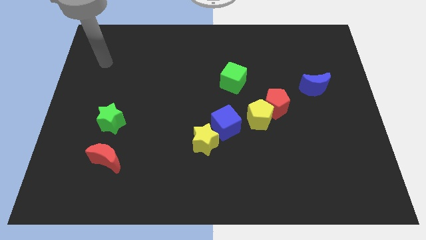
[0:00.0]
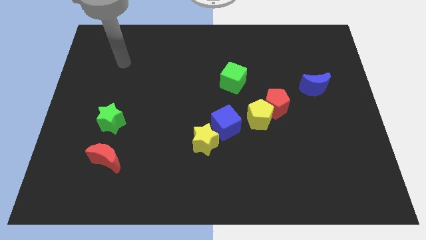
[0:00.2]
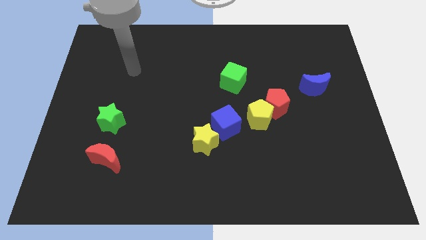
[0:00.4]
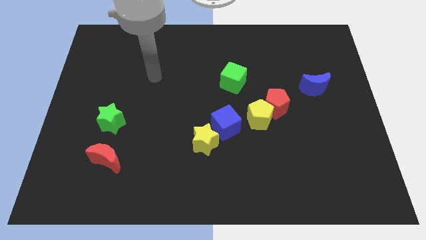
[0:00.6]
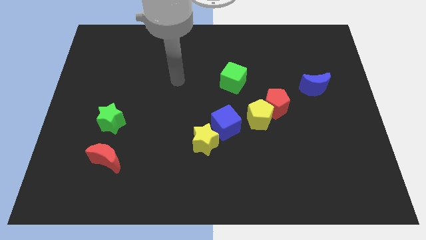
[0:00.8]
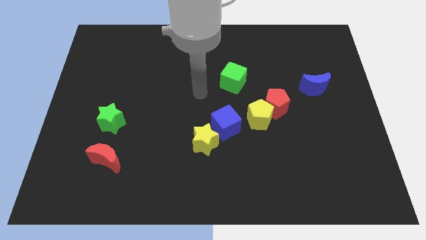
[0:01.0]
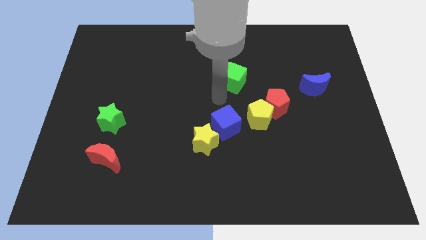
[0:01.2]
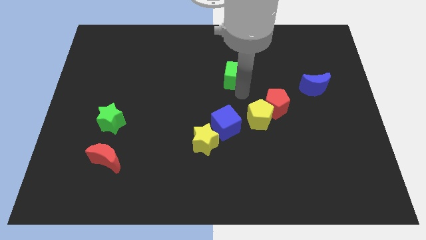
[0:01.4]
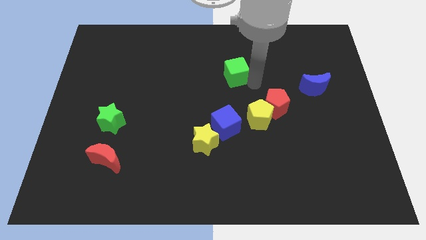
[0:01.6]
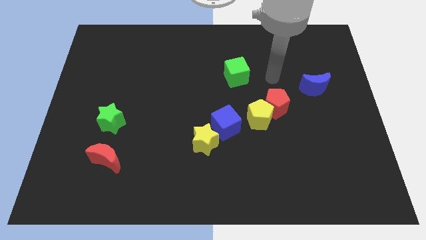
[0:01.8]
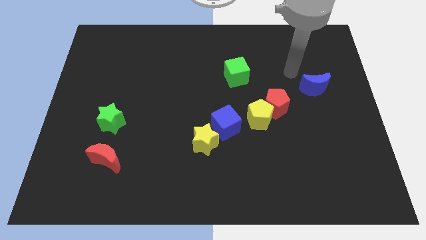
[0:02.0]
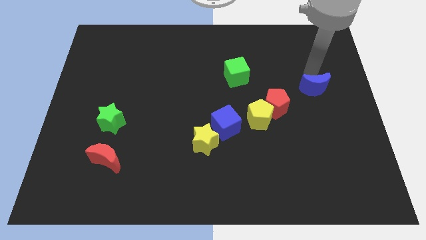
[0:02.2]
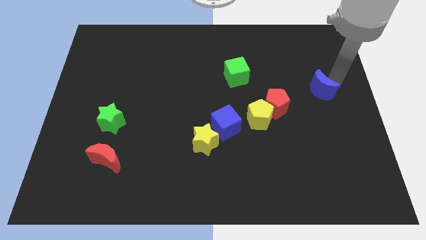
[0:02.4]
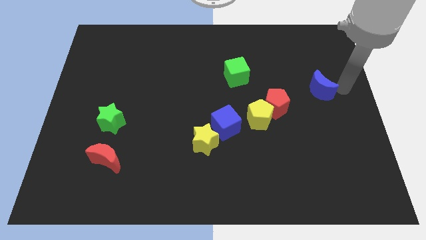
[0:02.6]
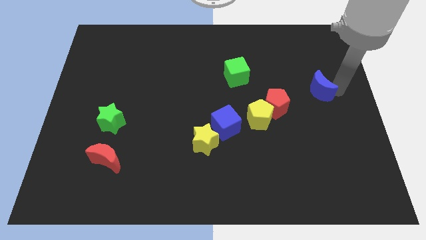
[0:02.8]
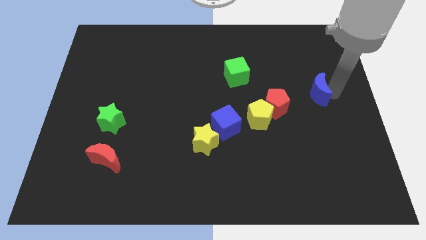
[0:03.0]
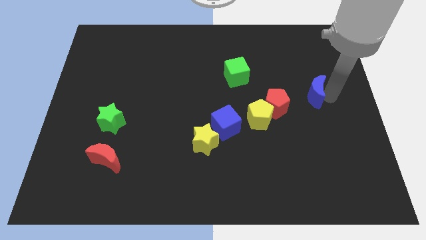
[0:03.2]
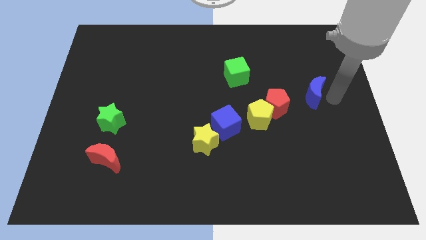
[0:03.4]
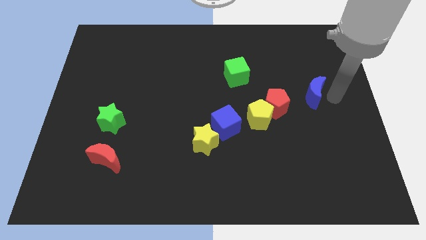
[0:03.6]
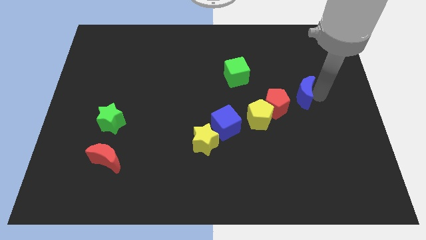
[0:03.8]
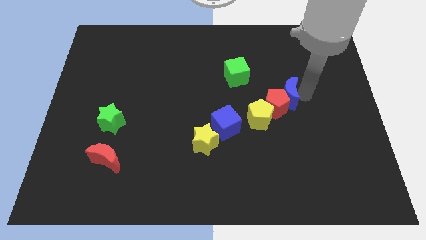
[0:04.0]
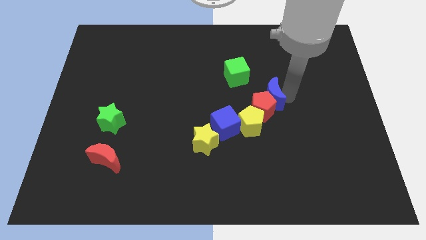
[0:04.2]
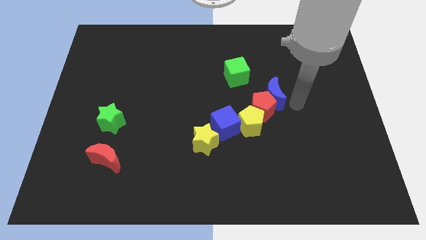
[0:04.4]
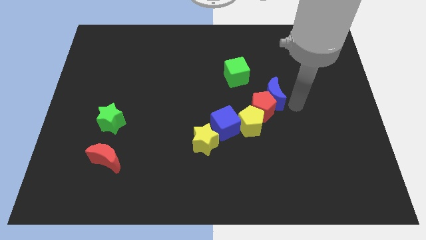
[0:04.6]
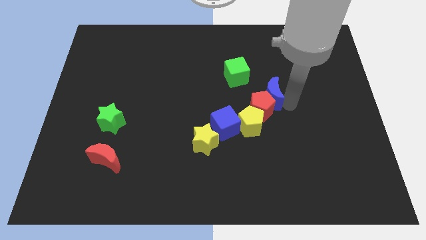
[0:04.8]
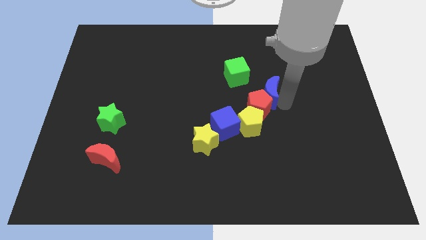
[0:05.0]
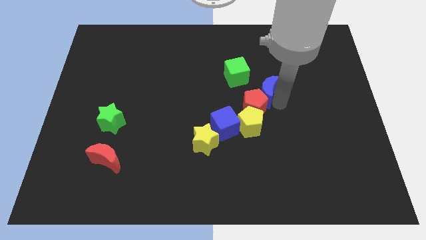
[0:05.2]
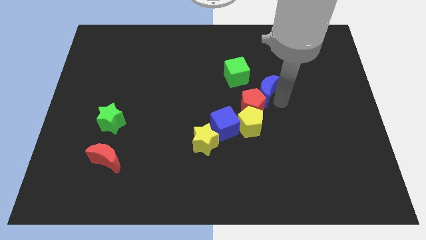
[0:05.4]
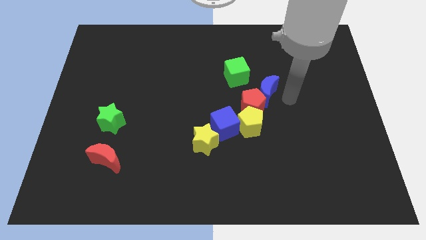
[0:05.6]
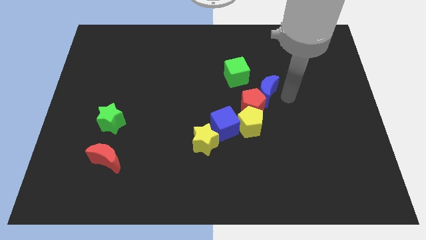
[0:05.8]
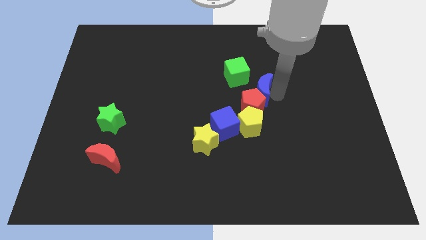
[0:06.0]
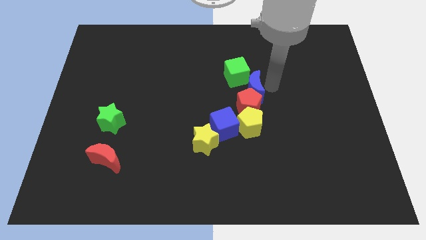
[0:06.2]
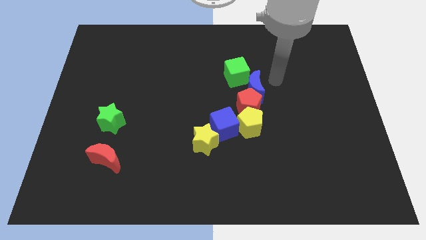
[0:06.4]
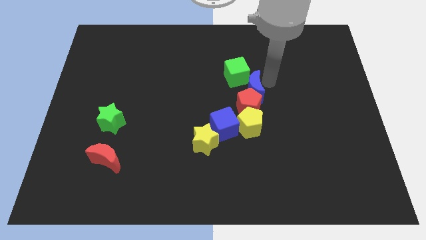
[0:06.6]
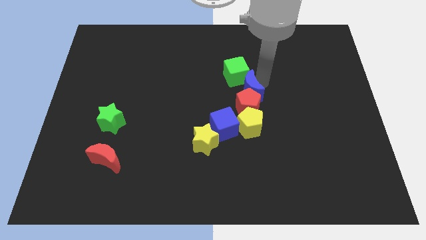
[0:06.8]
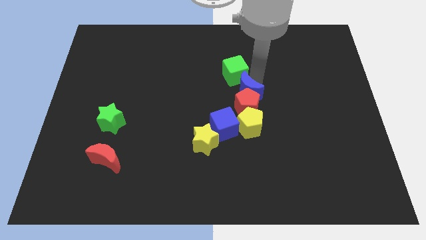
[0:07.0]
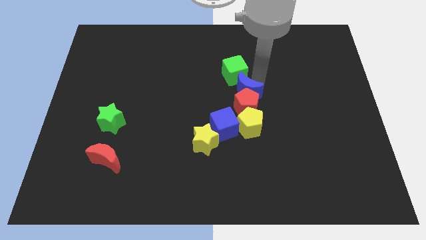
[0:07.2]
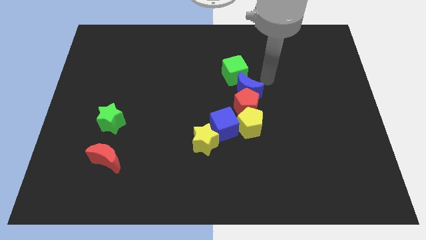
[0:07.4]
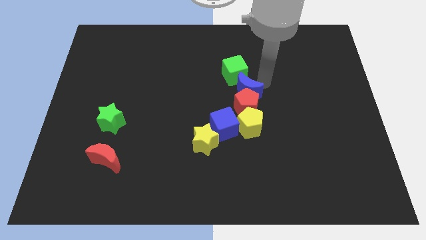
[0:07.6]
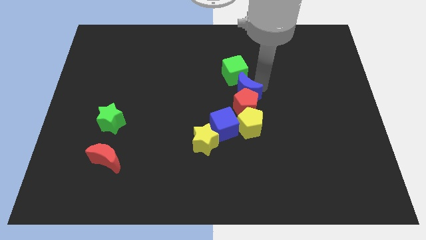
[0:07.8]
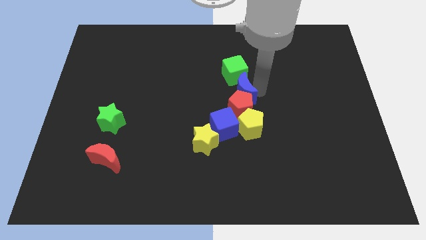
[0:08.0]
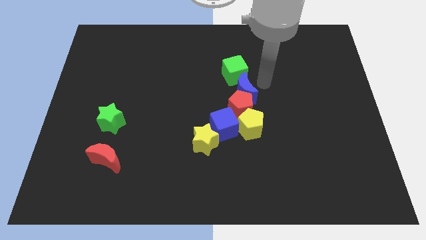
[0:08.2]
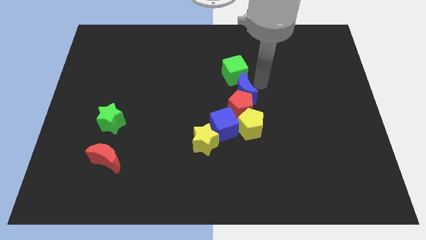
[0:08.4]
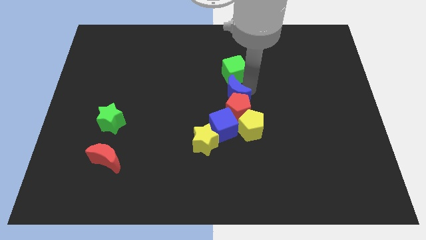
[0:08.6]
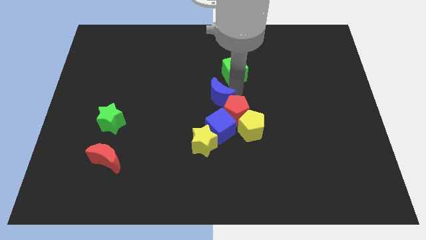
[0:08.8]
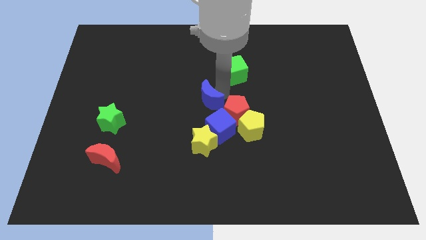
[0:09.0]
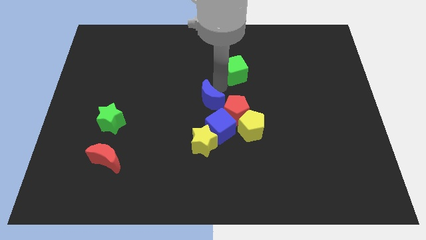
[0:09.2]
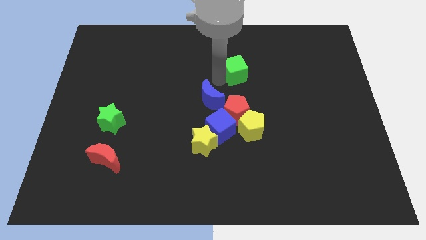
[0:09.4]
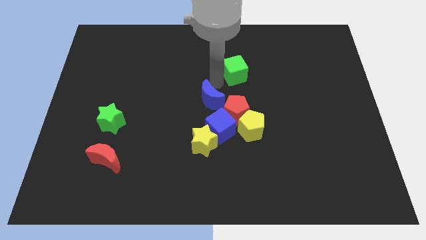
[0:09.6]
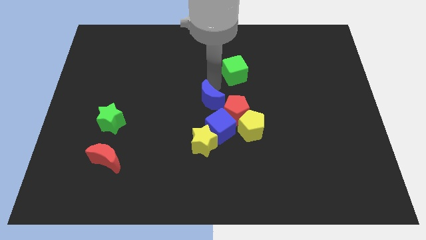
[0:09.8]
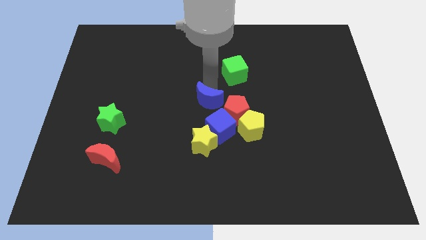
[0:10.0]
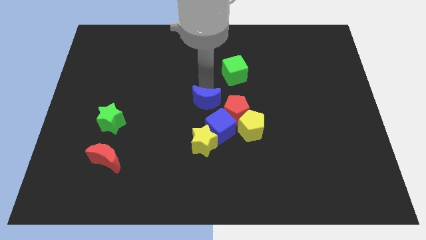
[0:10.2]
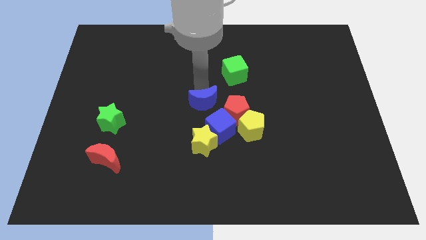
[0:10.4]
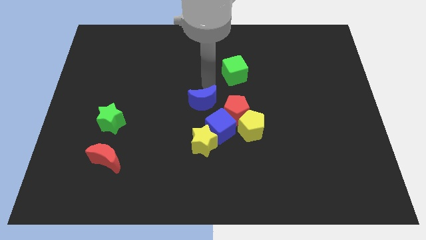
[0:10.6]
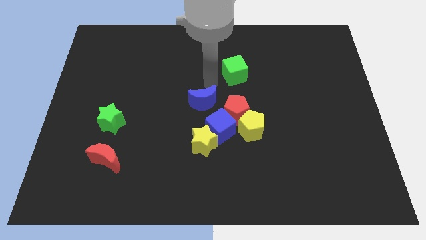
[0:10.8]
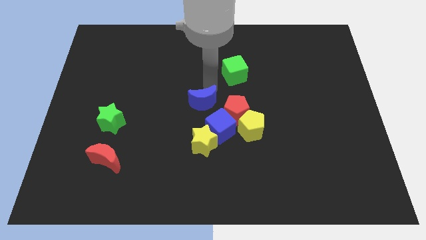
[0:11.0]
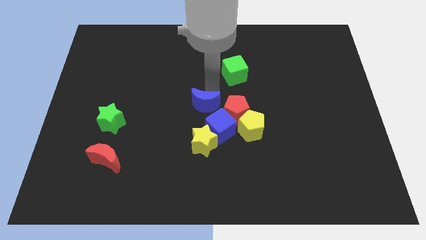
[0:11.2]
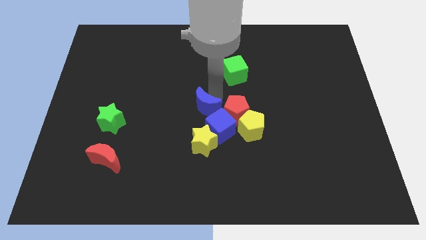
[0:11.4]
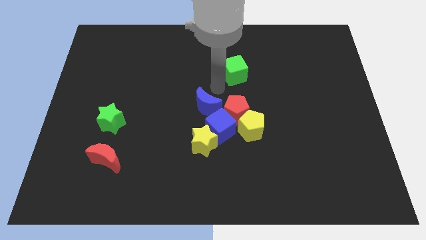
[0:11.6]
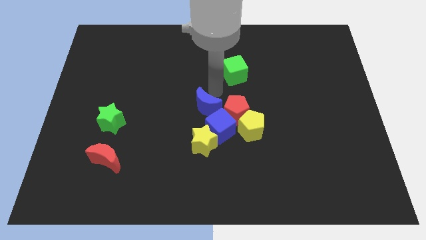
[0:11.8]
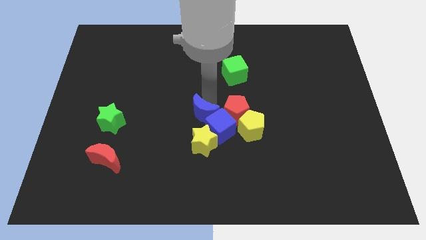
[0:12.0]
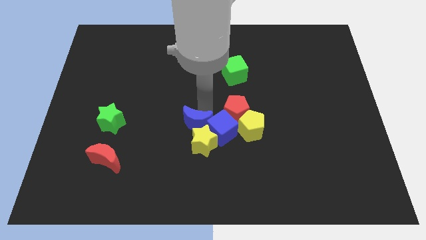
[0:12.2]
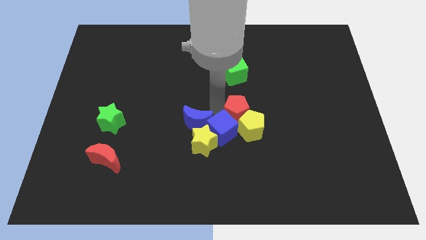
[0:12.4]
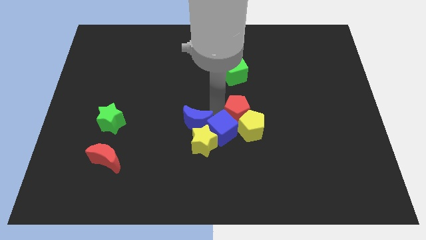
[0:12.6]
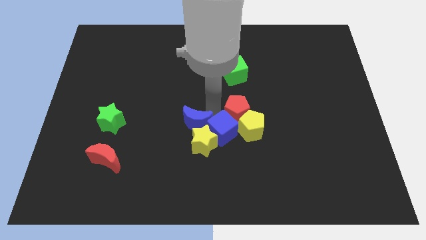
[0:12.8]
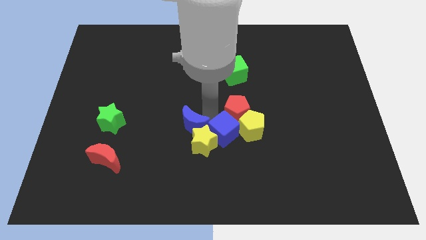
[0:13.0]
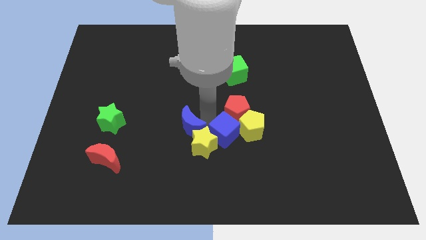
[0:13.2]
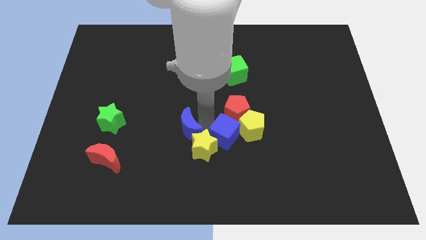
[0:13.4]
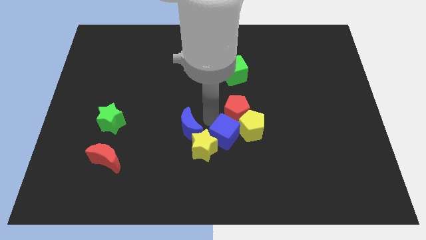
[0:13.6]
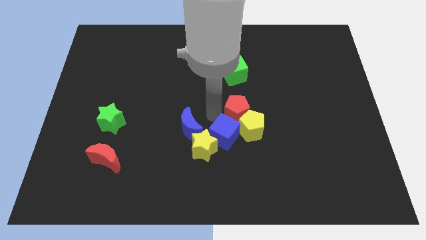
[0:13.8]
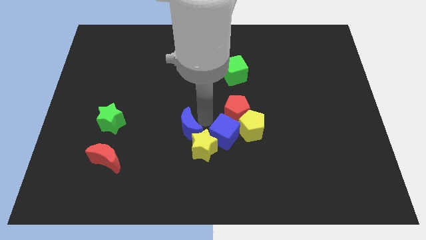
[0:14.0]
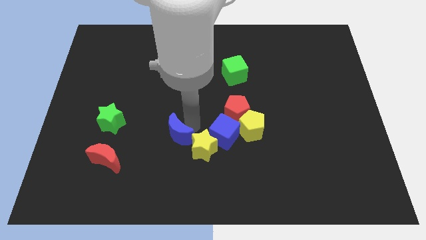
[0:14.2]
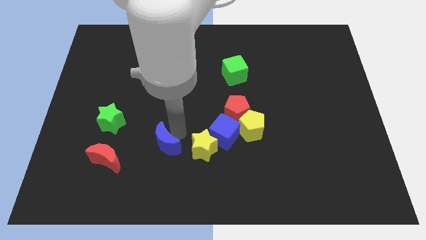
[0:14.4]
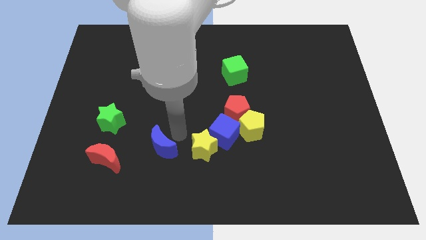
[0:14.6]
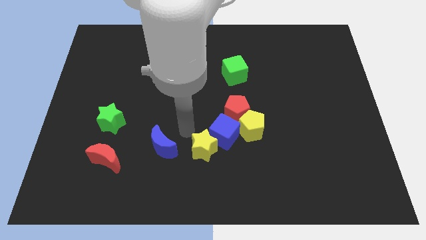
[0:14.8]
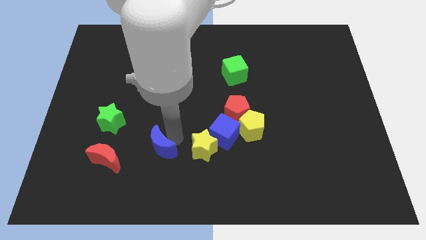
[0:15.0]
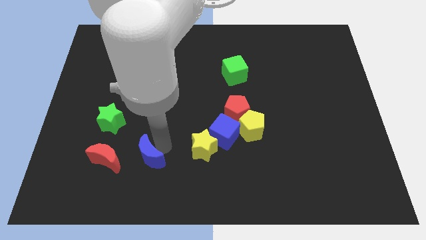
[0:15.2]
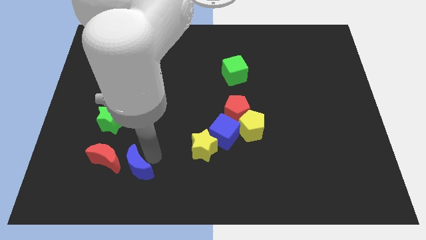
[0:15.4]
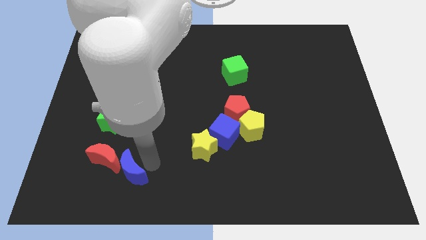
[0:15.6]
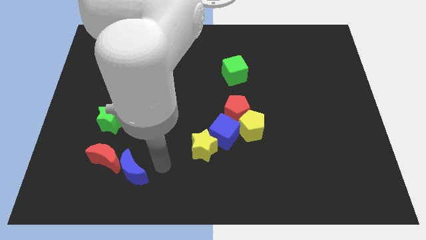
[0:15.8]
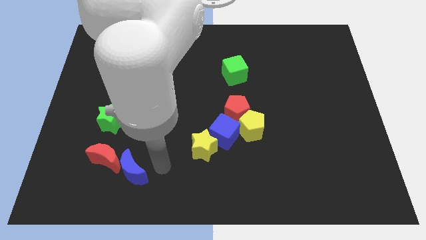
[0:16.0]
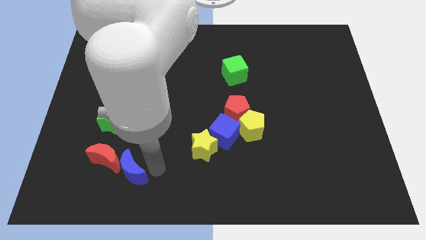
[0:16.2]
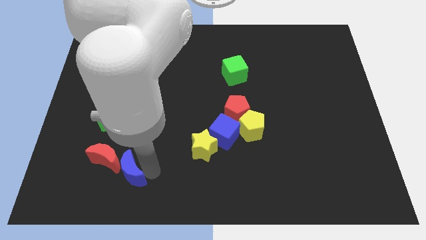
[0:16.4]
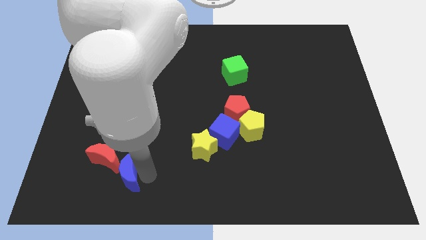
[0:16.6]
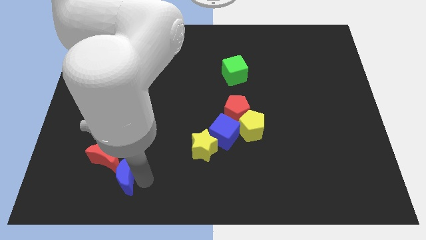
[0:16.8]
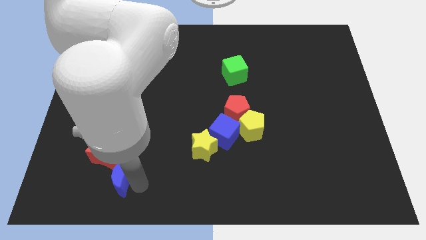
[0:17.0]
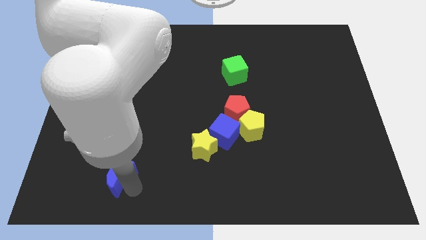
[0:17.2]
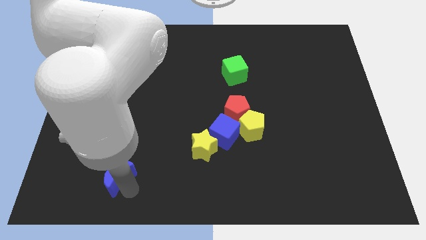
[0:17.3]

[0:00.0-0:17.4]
put the blue moon to the bottom of the green star
